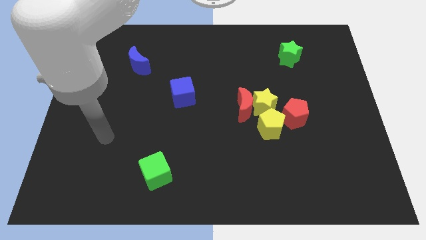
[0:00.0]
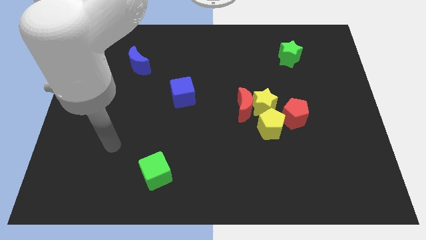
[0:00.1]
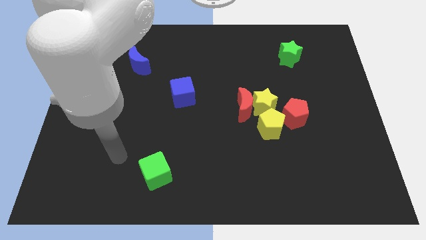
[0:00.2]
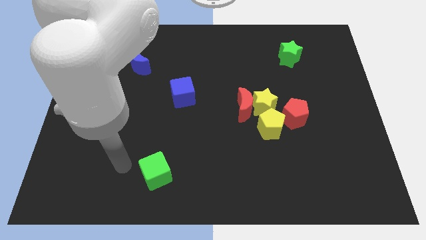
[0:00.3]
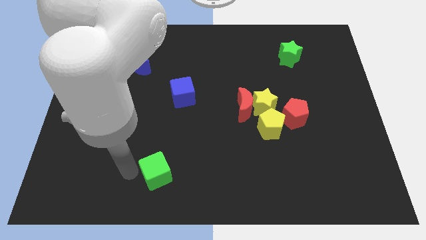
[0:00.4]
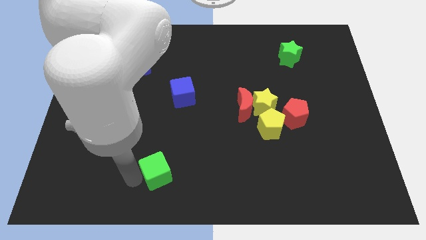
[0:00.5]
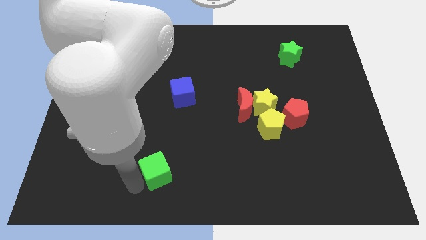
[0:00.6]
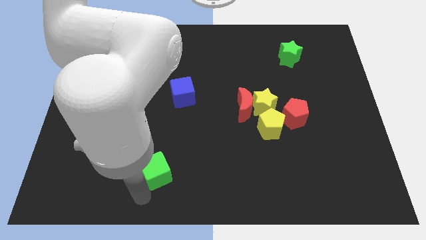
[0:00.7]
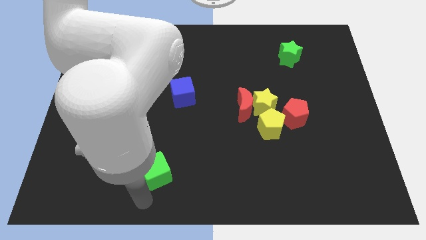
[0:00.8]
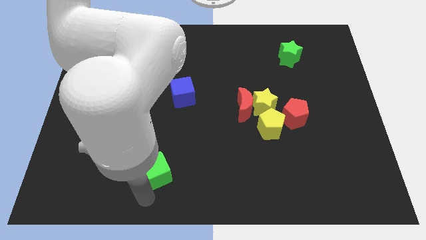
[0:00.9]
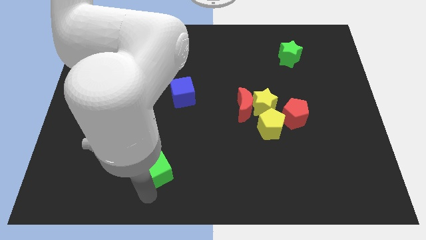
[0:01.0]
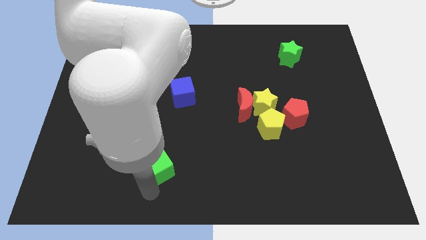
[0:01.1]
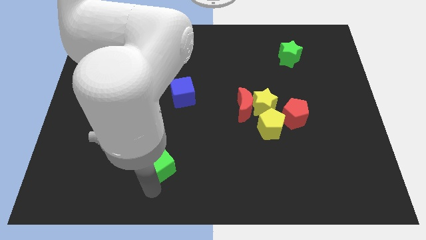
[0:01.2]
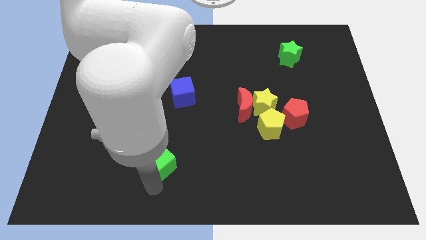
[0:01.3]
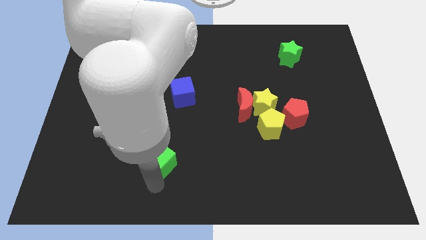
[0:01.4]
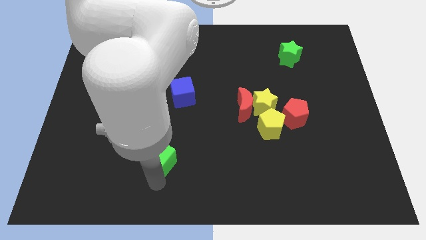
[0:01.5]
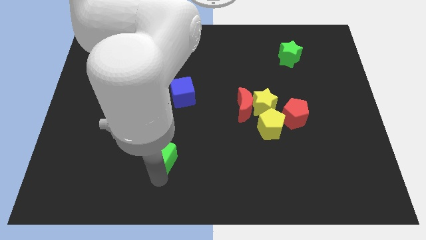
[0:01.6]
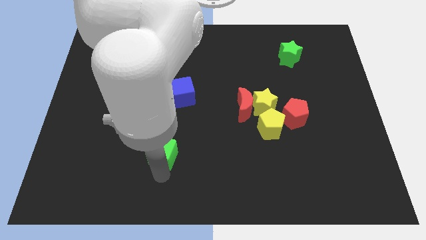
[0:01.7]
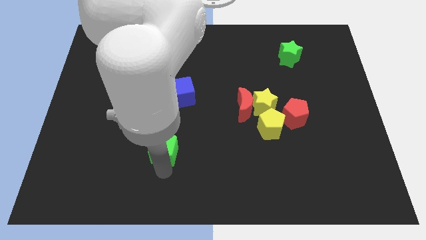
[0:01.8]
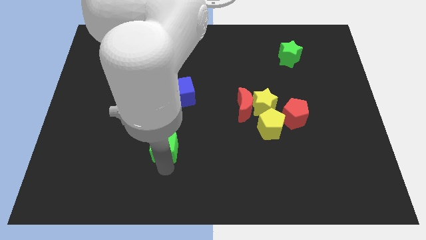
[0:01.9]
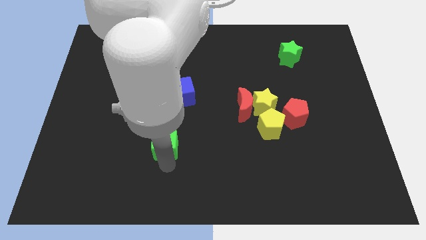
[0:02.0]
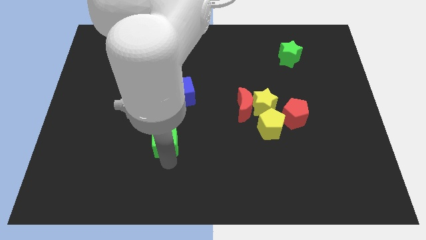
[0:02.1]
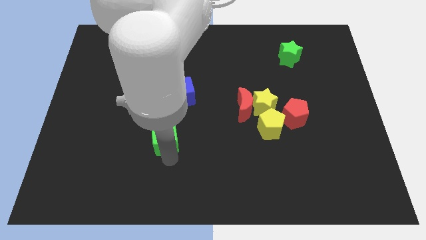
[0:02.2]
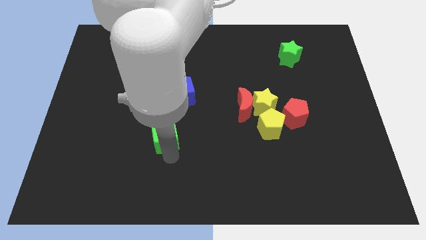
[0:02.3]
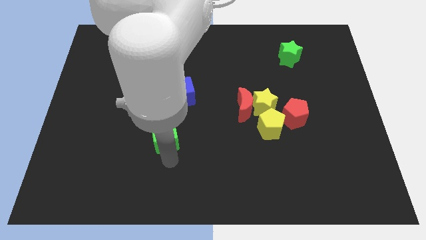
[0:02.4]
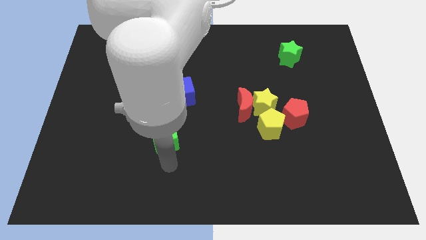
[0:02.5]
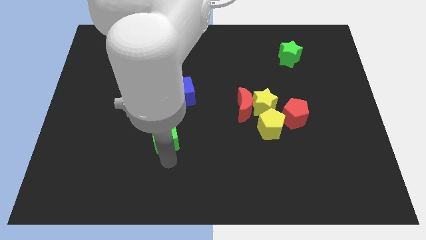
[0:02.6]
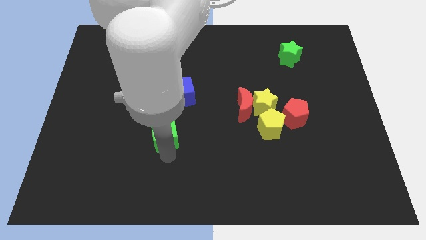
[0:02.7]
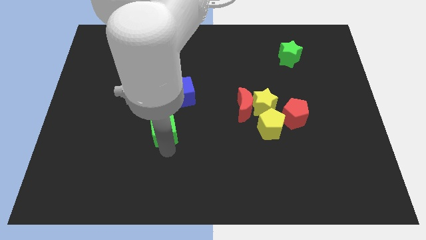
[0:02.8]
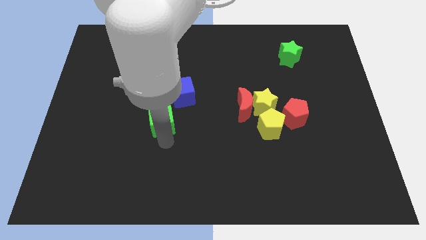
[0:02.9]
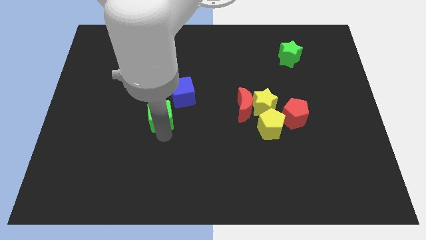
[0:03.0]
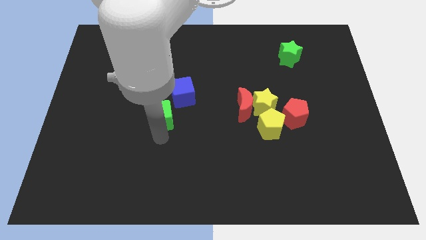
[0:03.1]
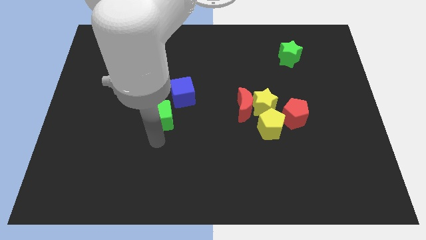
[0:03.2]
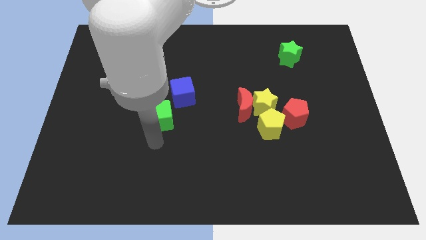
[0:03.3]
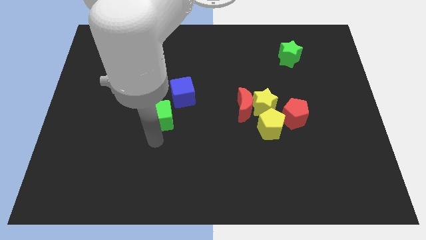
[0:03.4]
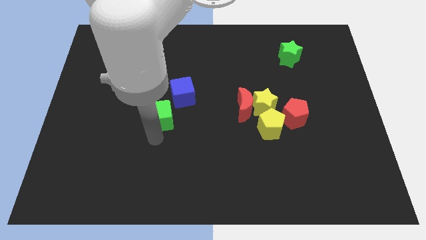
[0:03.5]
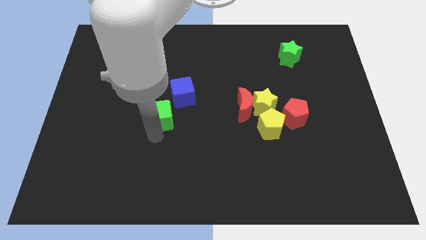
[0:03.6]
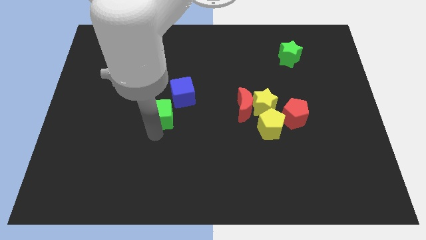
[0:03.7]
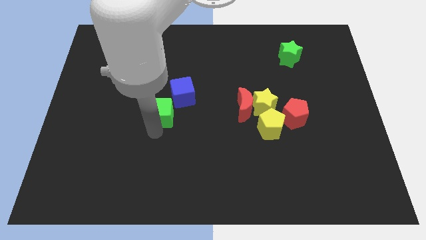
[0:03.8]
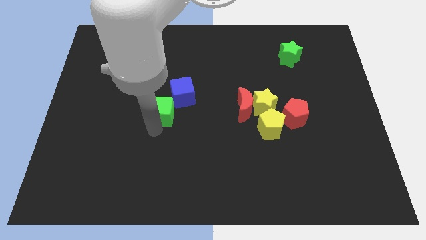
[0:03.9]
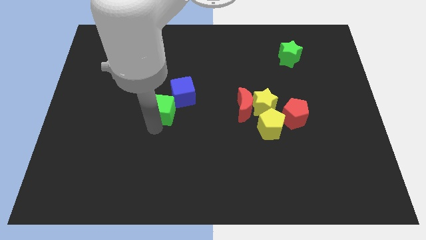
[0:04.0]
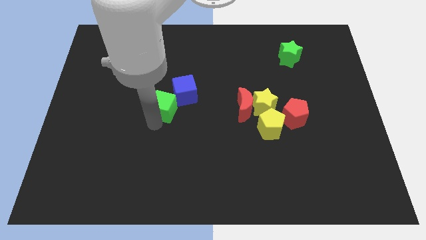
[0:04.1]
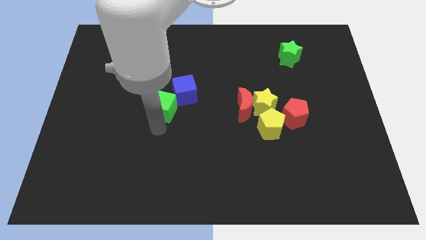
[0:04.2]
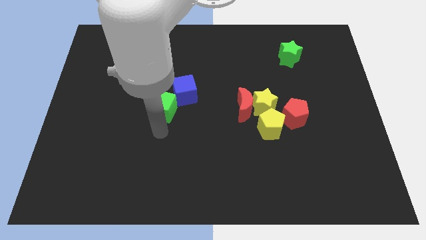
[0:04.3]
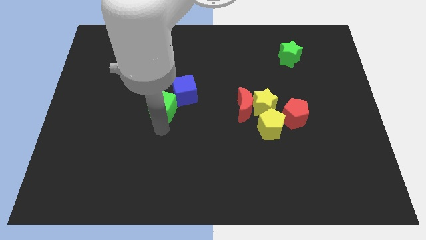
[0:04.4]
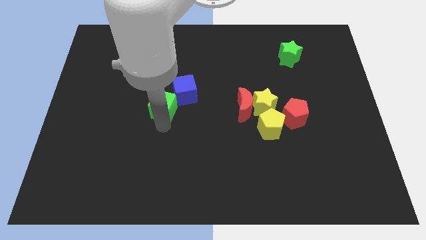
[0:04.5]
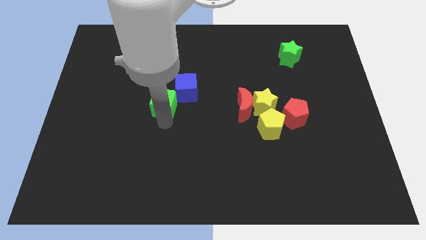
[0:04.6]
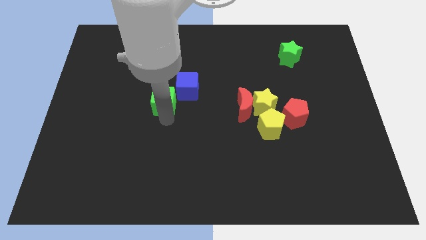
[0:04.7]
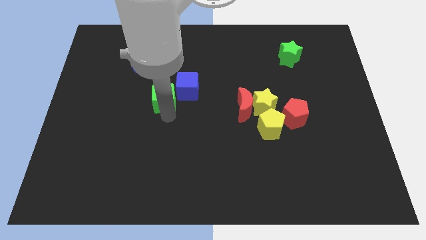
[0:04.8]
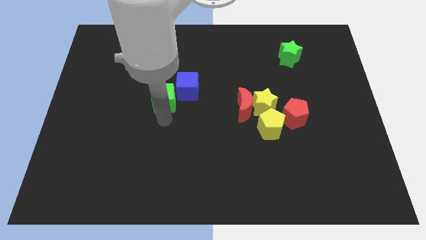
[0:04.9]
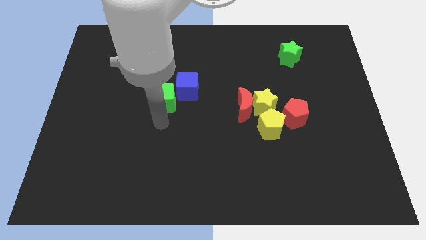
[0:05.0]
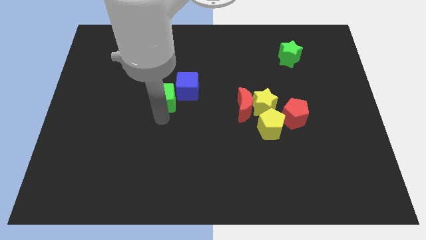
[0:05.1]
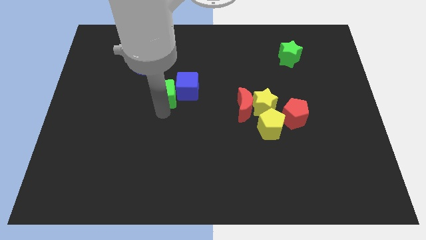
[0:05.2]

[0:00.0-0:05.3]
push the green cube up

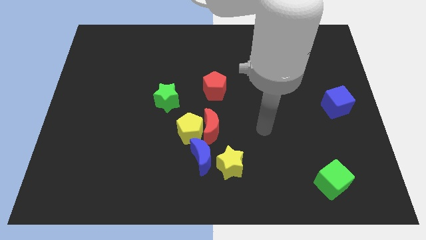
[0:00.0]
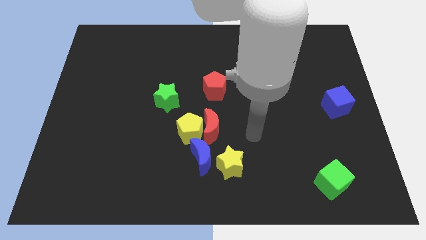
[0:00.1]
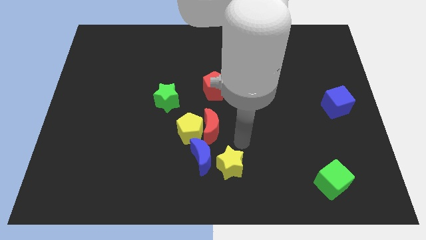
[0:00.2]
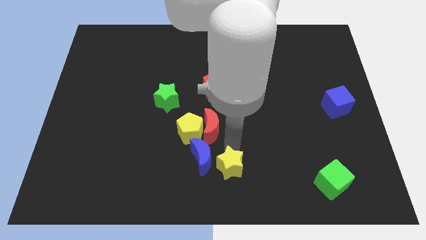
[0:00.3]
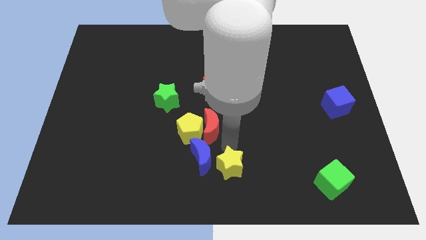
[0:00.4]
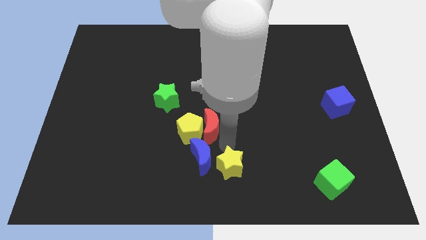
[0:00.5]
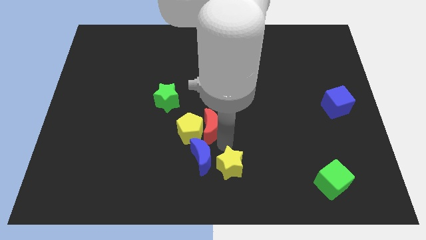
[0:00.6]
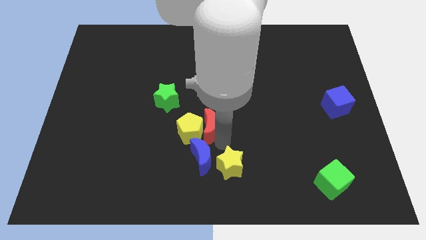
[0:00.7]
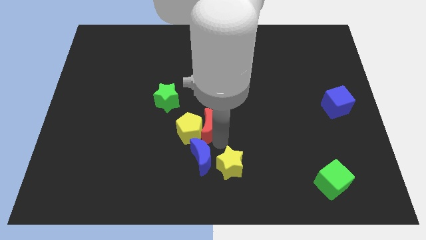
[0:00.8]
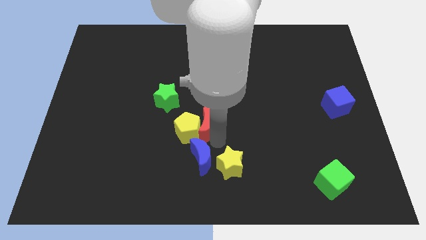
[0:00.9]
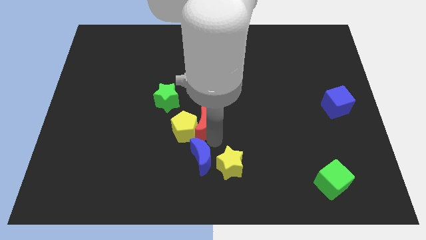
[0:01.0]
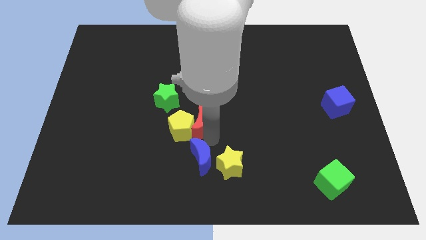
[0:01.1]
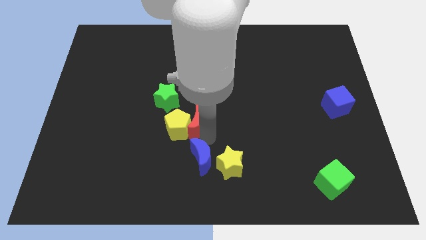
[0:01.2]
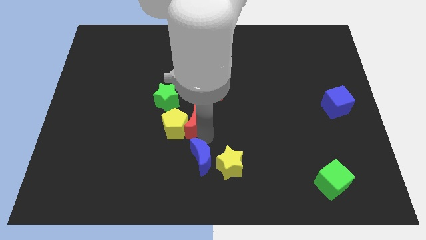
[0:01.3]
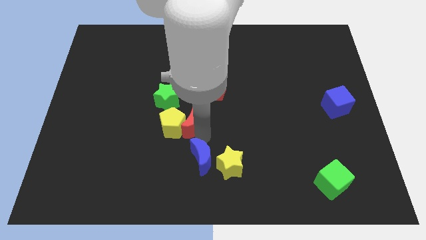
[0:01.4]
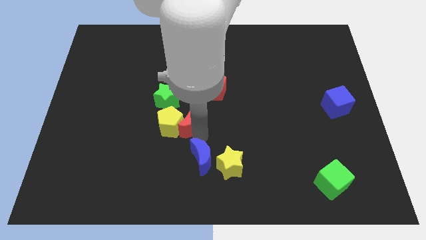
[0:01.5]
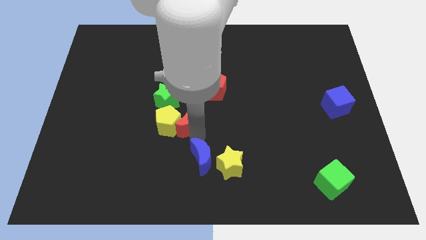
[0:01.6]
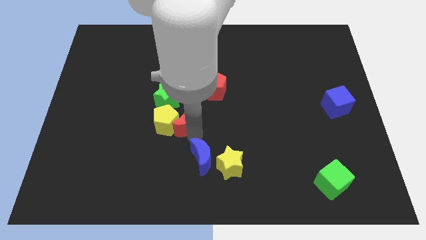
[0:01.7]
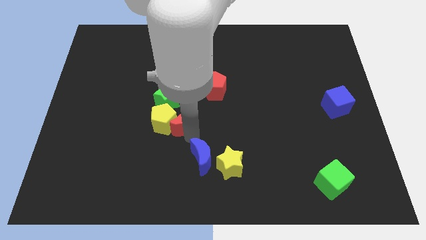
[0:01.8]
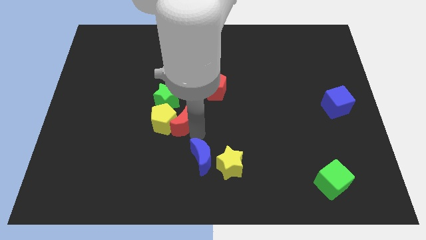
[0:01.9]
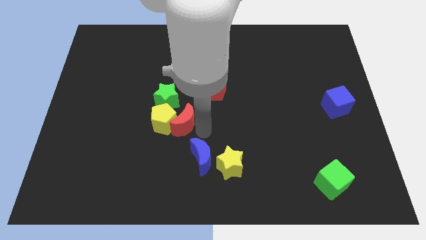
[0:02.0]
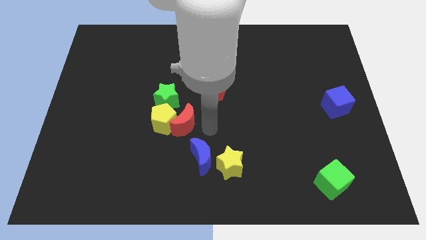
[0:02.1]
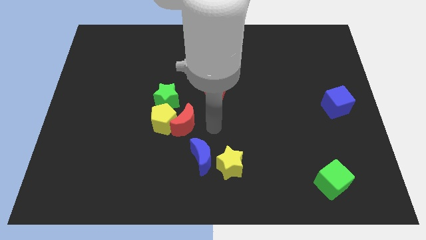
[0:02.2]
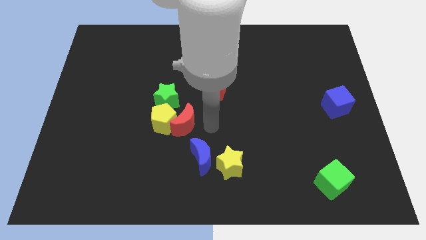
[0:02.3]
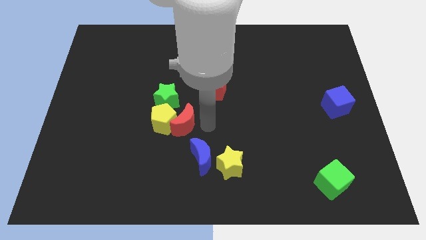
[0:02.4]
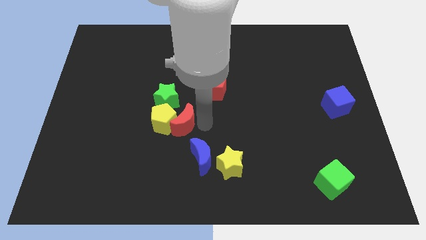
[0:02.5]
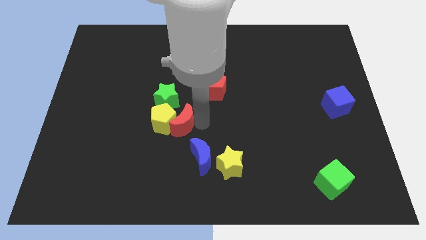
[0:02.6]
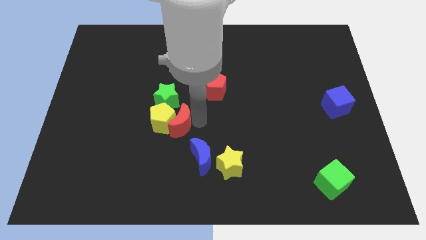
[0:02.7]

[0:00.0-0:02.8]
slightly slide the red moon left
